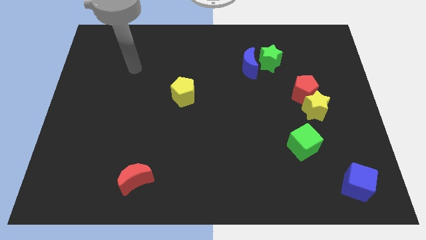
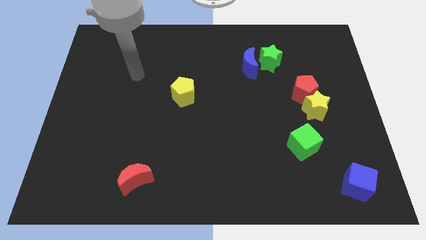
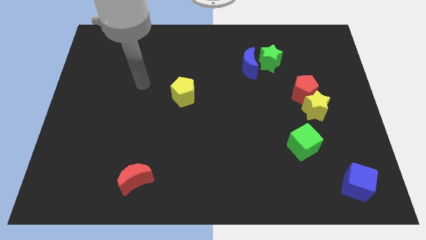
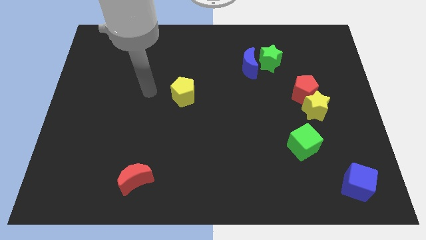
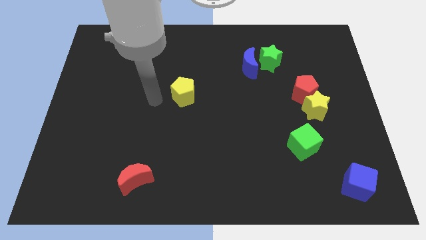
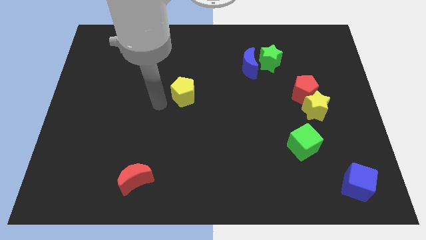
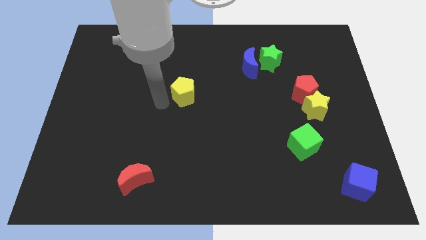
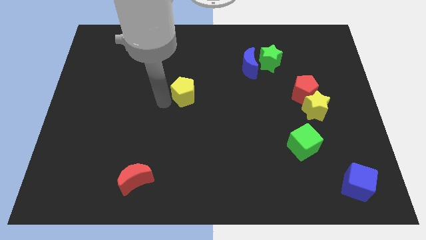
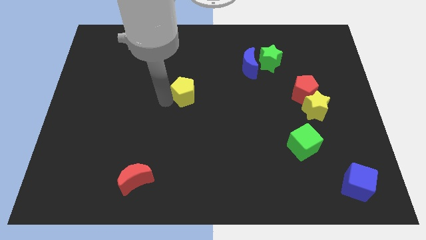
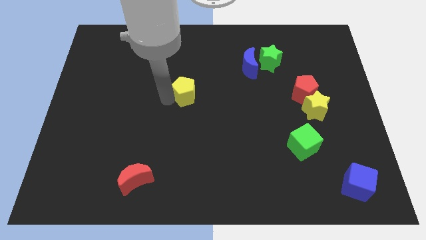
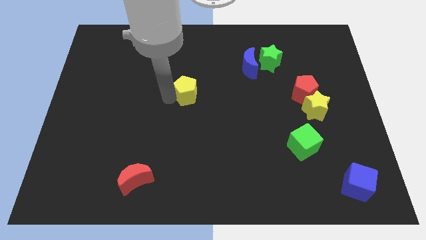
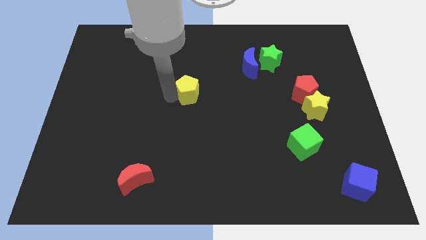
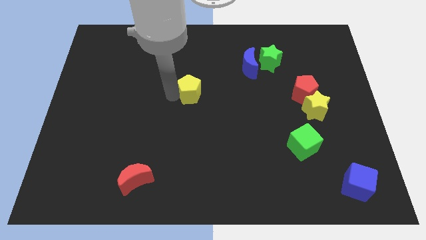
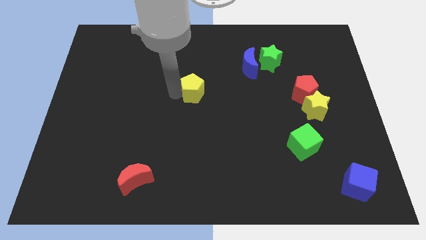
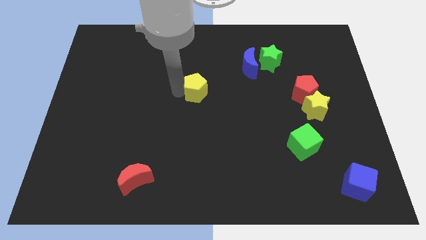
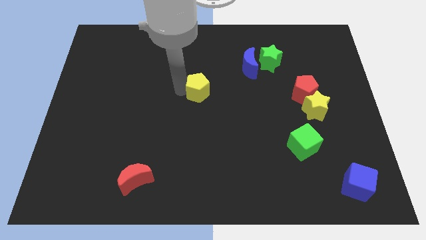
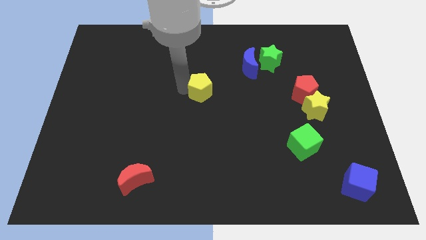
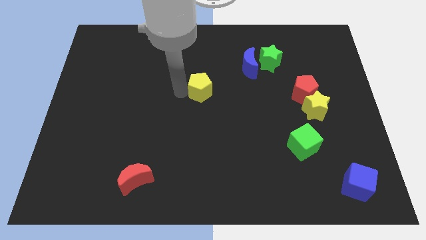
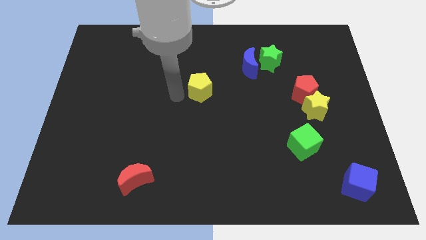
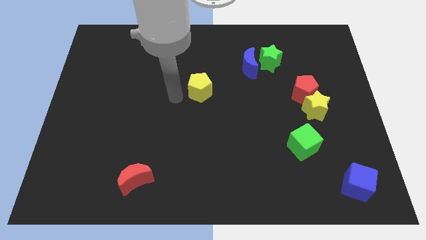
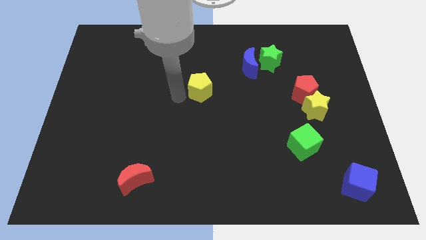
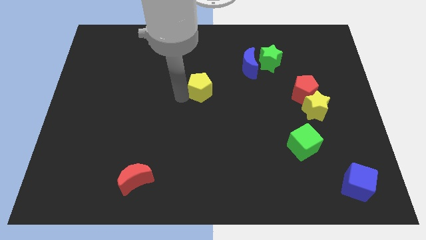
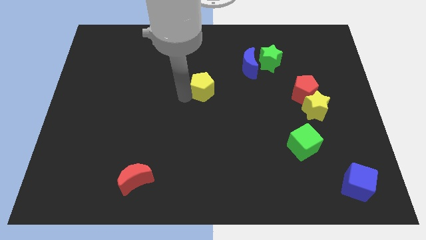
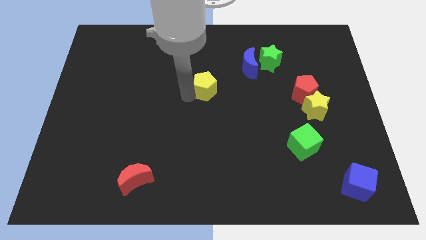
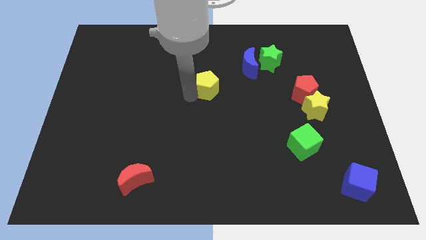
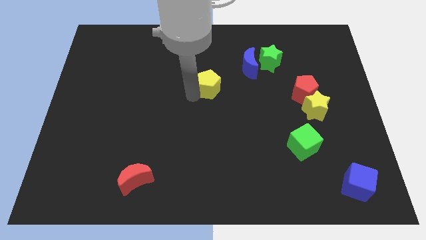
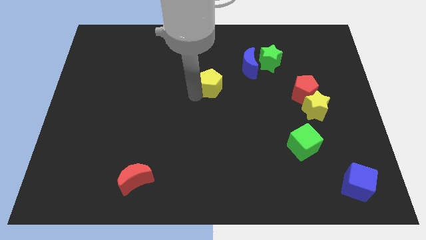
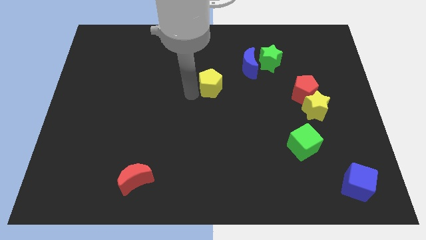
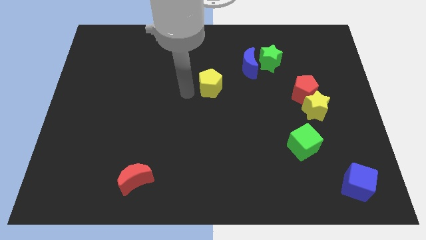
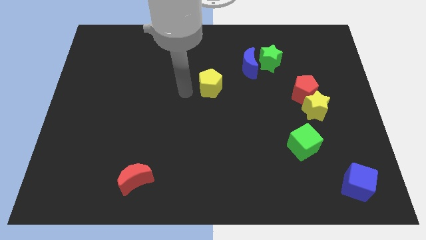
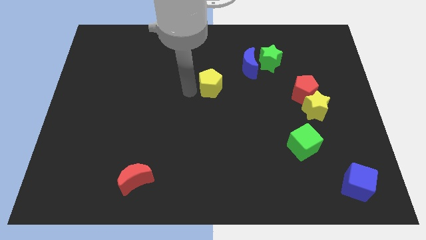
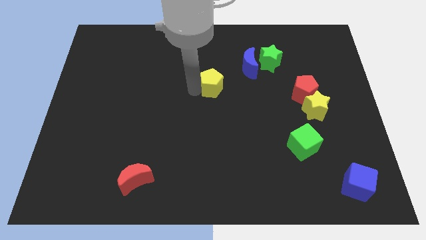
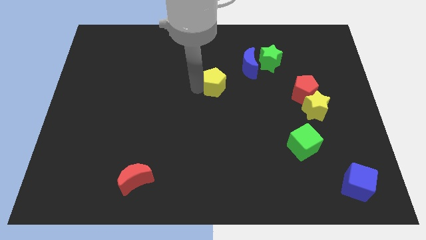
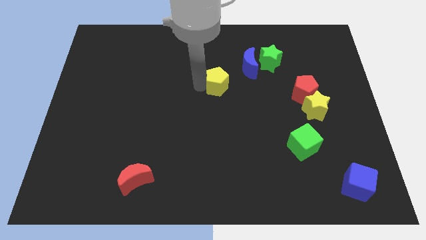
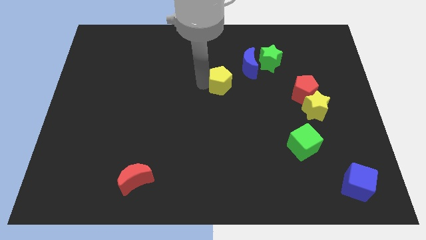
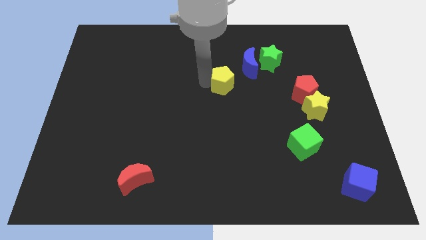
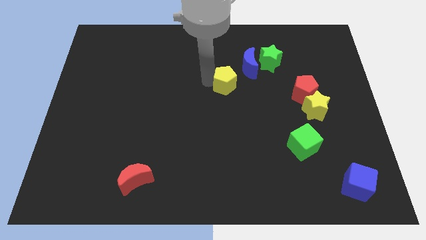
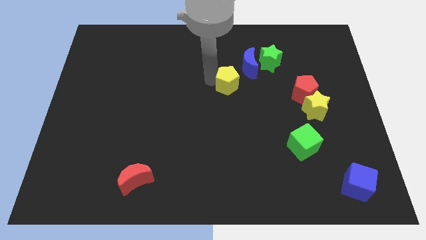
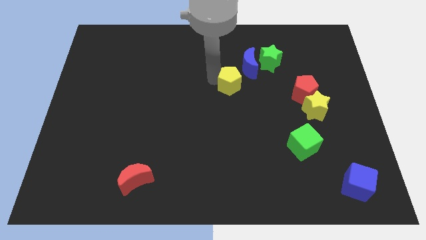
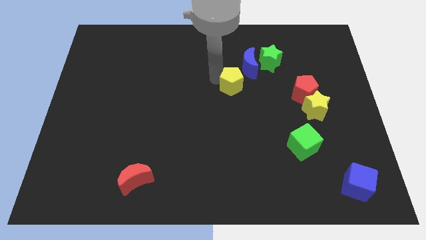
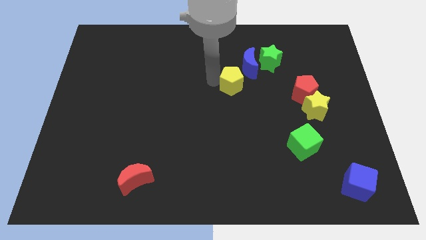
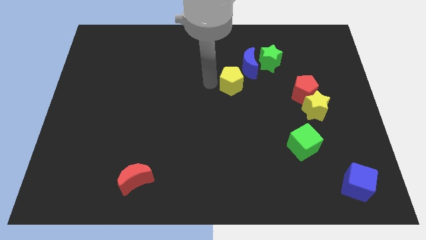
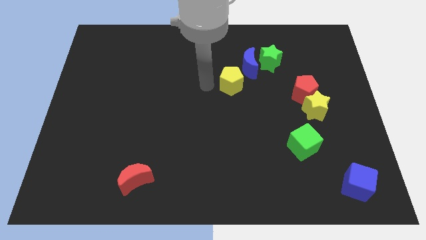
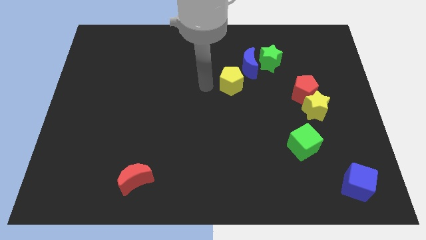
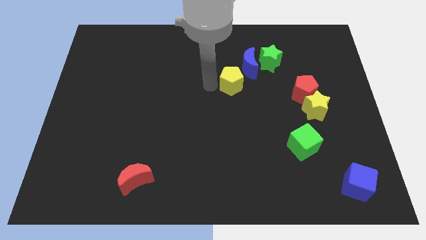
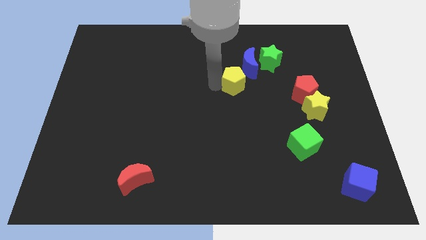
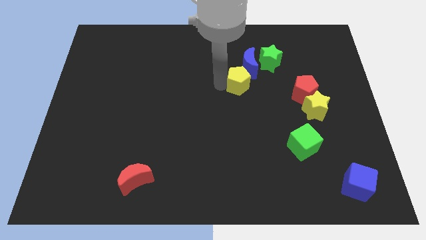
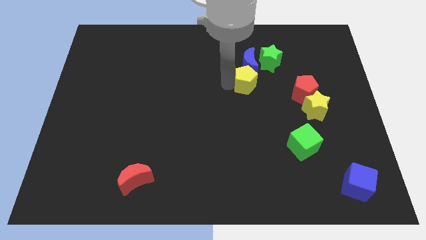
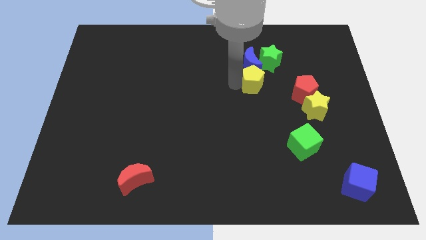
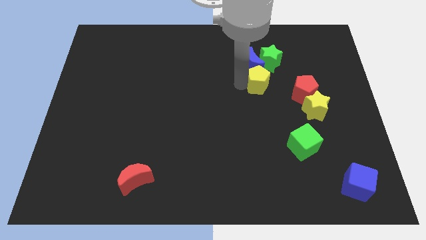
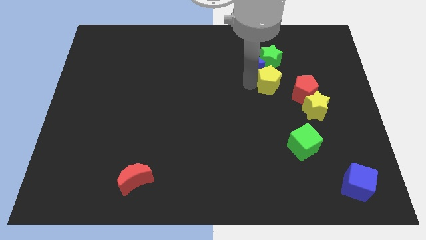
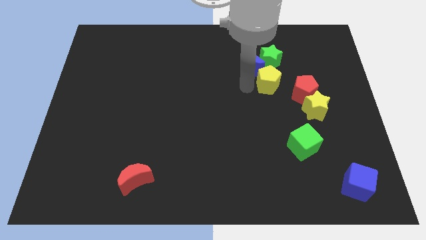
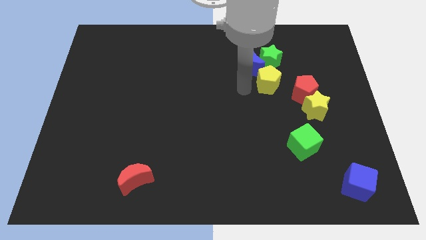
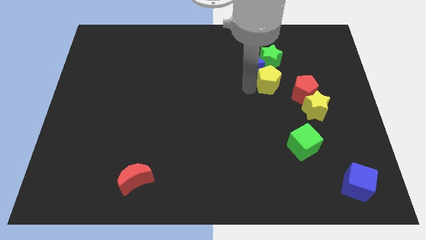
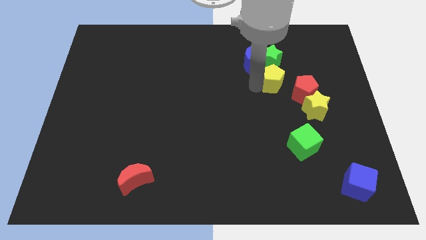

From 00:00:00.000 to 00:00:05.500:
move the yellow pentagon to the bottom right of the green star
